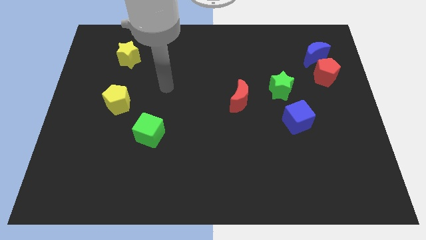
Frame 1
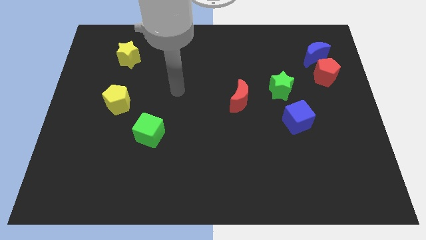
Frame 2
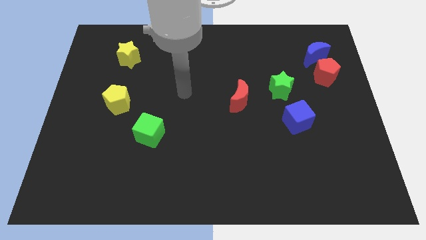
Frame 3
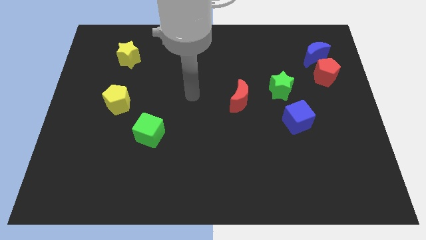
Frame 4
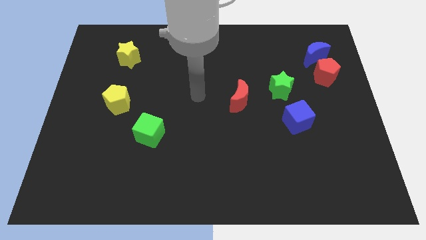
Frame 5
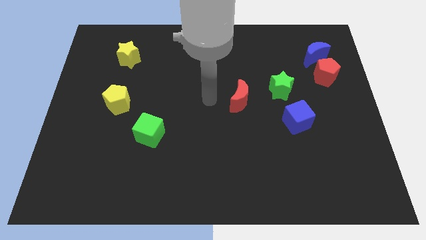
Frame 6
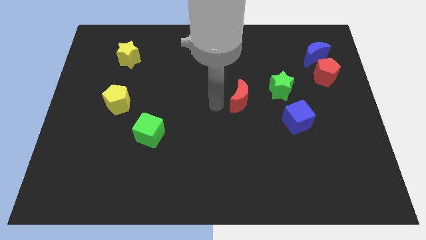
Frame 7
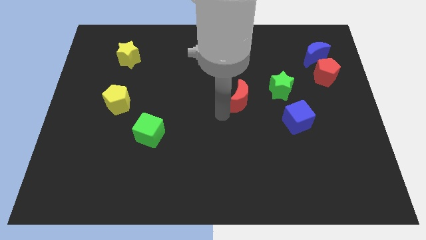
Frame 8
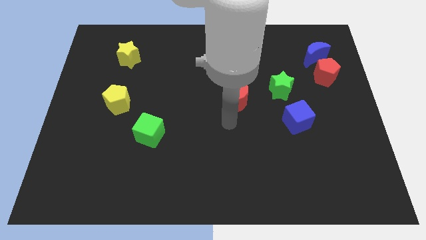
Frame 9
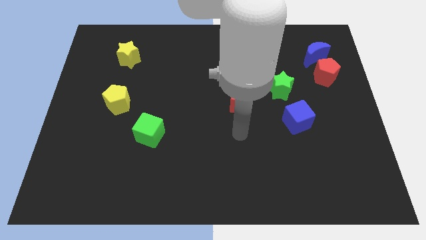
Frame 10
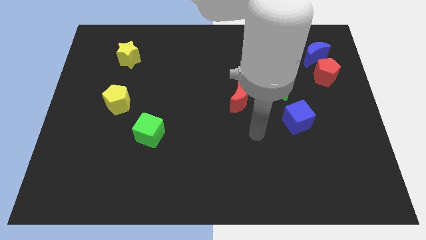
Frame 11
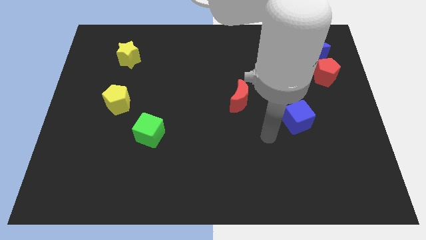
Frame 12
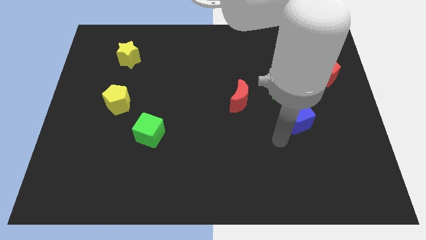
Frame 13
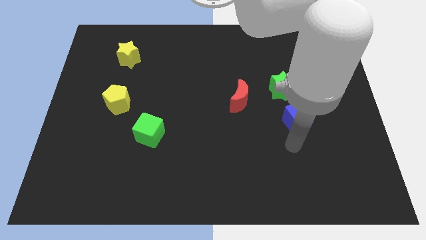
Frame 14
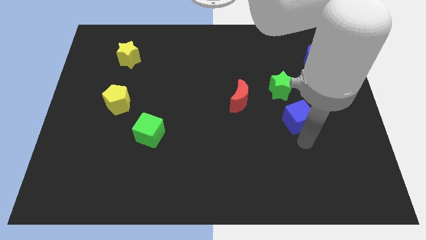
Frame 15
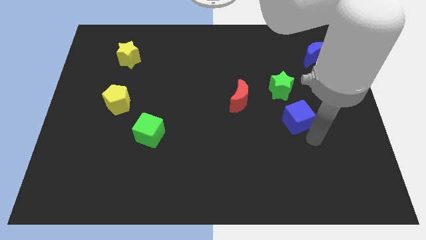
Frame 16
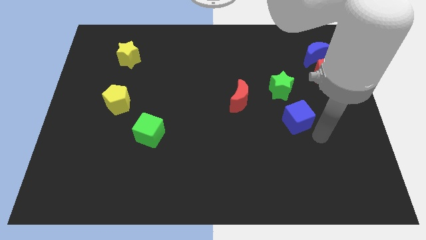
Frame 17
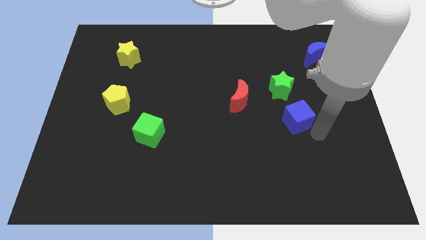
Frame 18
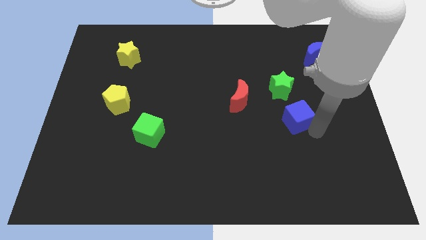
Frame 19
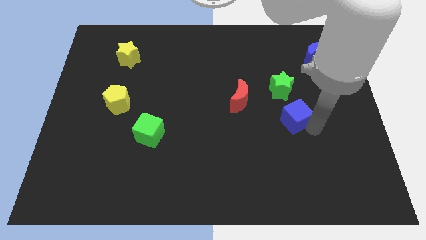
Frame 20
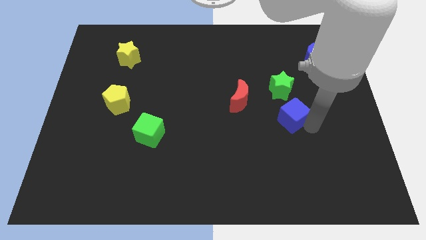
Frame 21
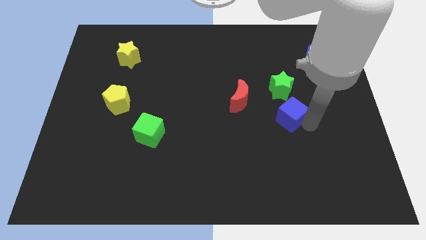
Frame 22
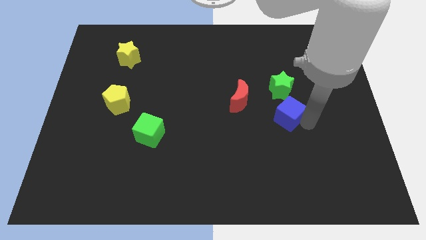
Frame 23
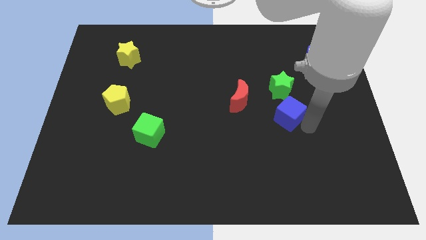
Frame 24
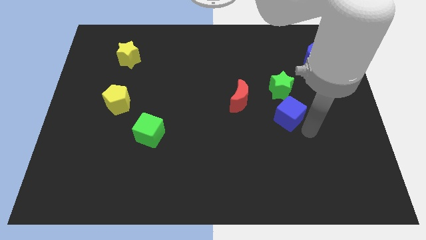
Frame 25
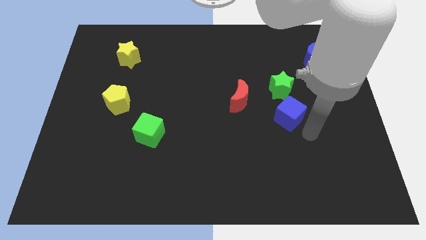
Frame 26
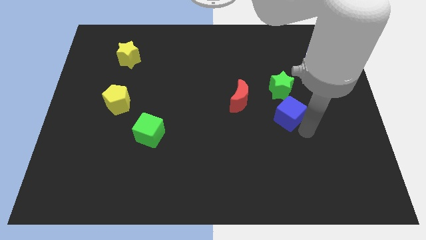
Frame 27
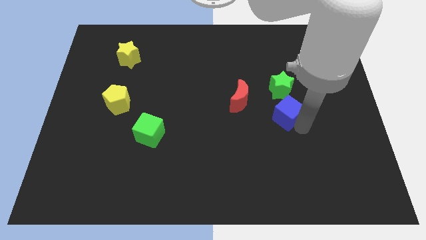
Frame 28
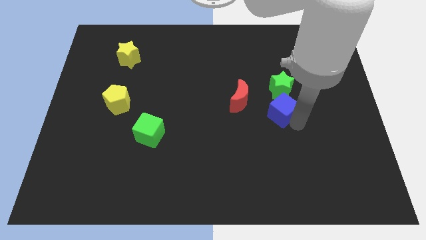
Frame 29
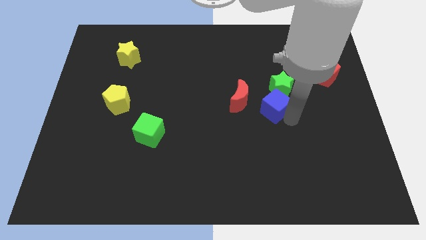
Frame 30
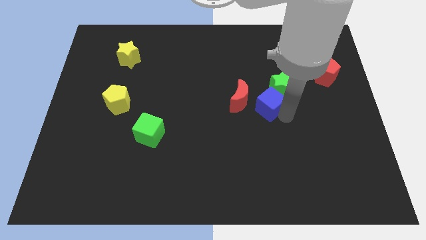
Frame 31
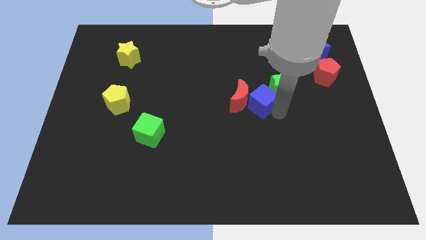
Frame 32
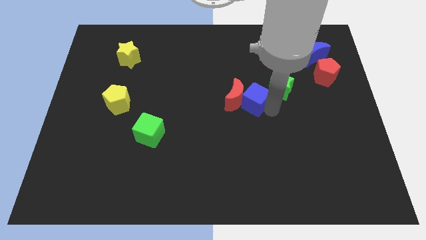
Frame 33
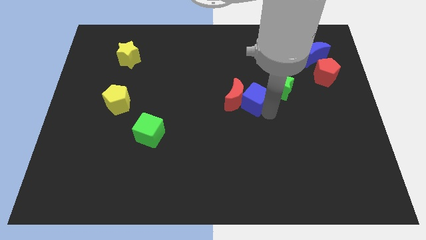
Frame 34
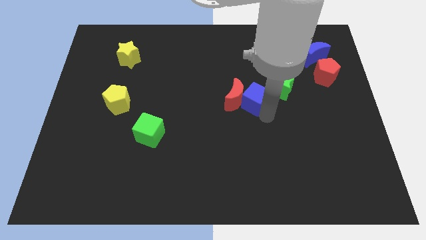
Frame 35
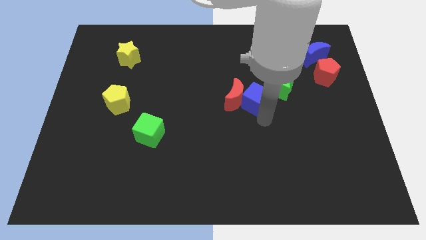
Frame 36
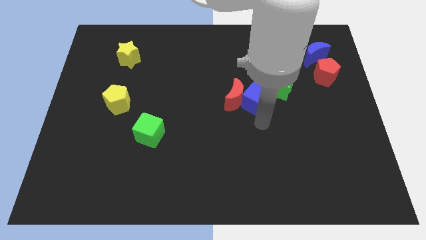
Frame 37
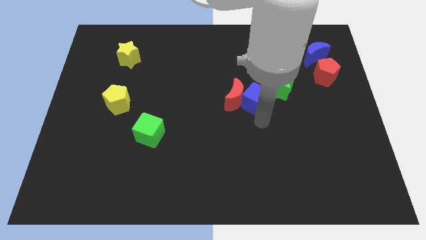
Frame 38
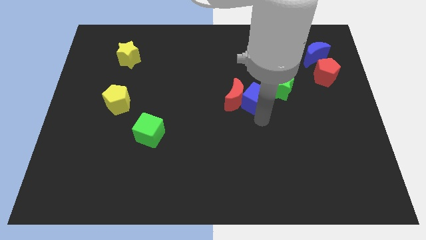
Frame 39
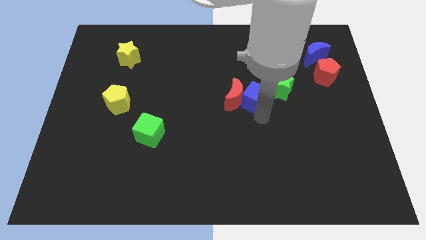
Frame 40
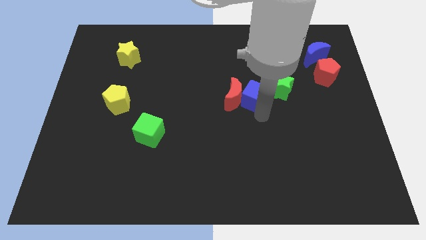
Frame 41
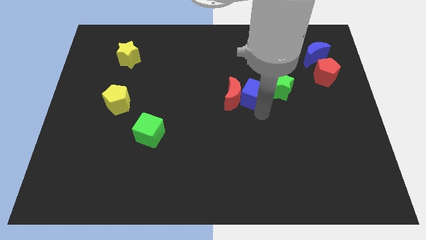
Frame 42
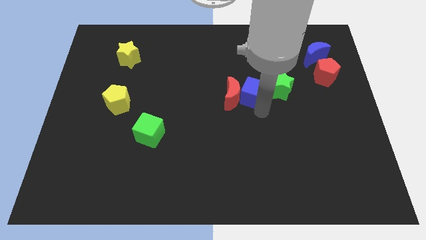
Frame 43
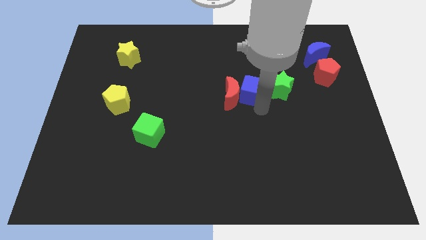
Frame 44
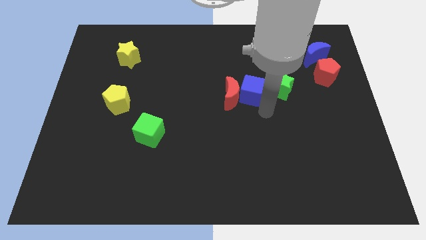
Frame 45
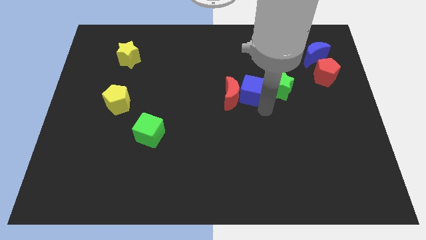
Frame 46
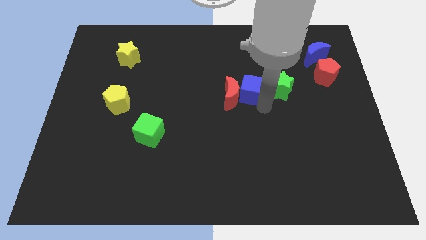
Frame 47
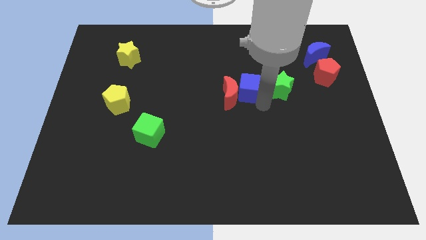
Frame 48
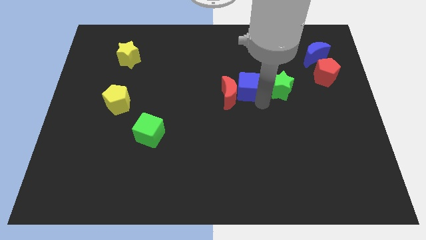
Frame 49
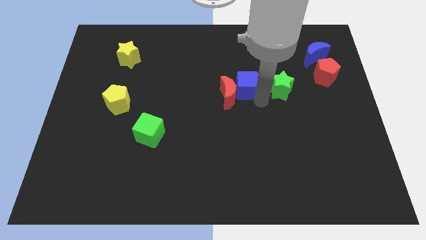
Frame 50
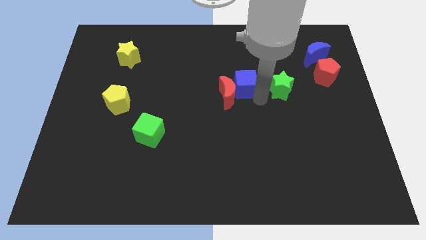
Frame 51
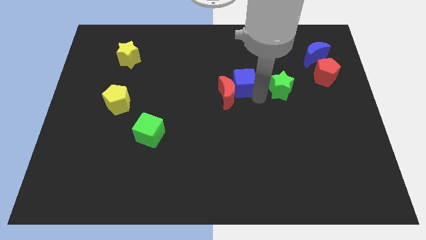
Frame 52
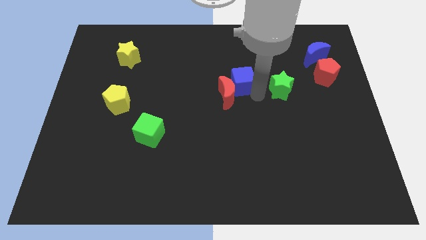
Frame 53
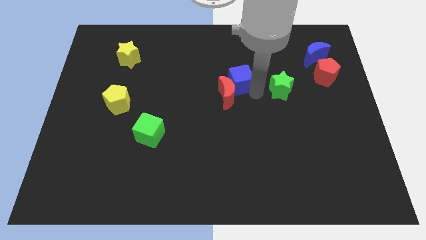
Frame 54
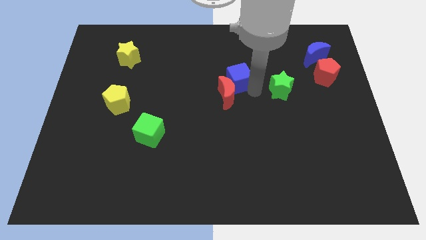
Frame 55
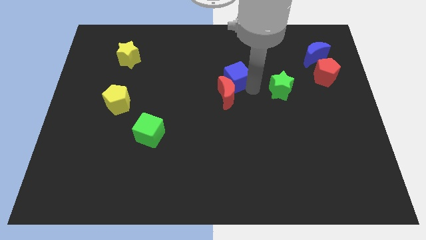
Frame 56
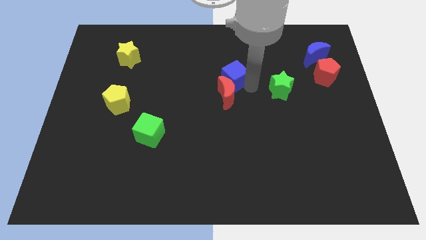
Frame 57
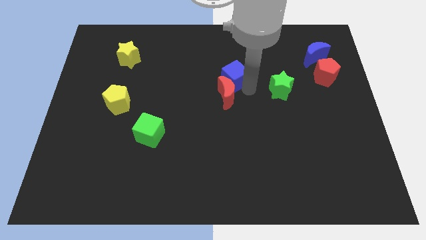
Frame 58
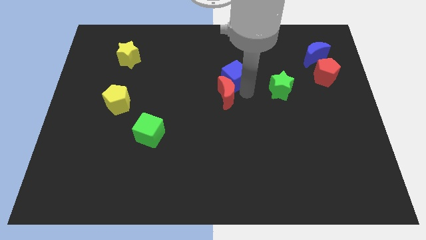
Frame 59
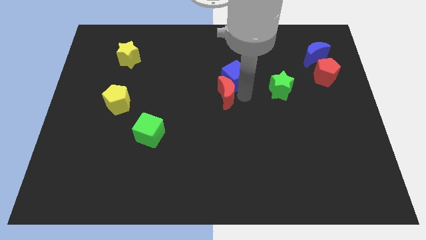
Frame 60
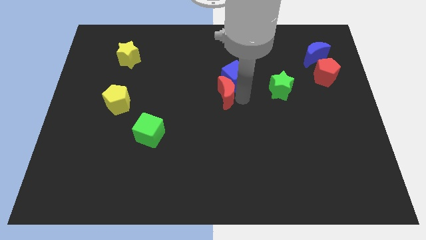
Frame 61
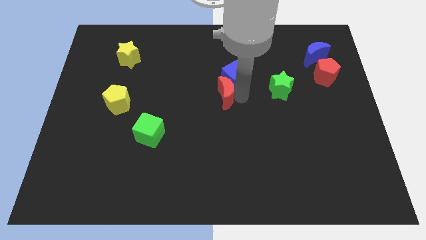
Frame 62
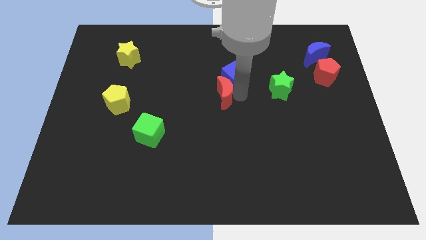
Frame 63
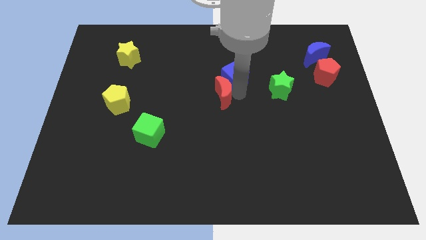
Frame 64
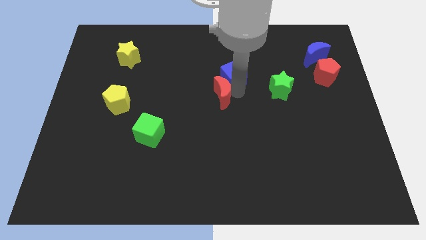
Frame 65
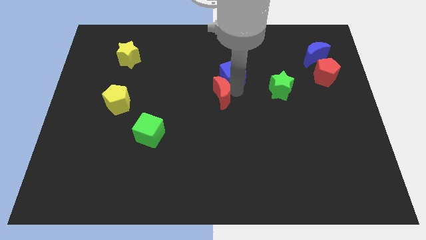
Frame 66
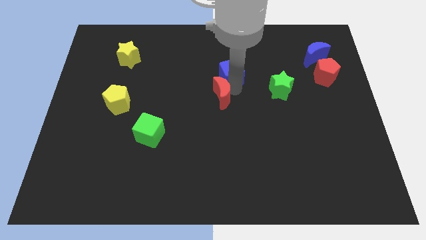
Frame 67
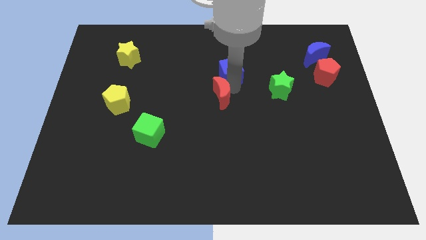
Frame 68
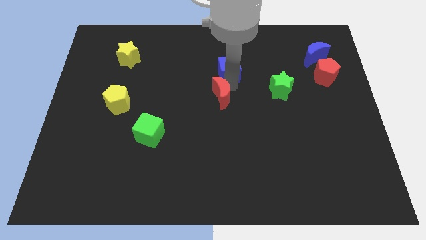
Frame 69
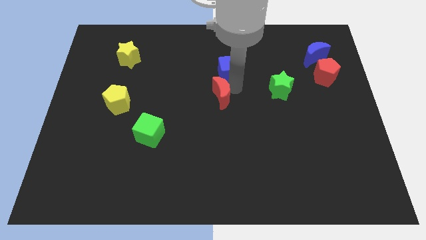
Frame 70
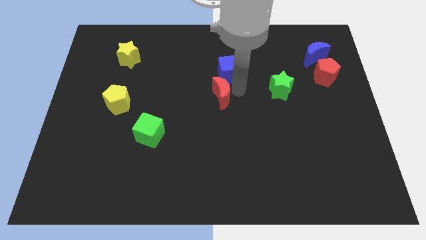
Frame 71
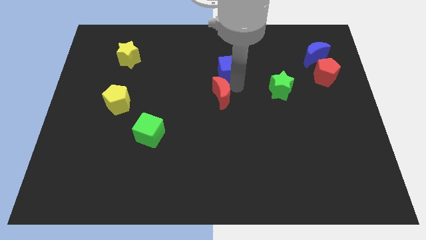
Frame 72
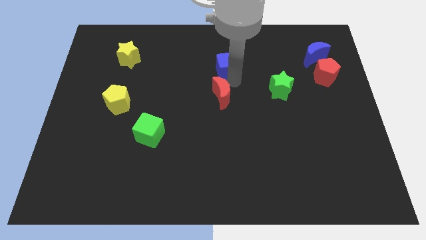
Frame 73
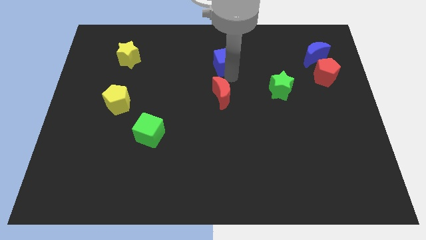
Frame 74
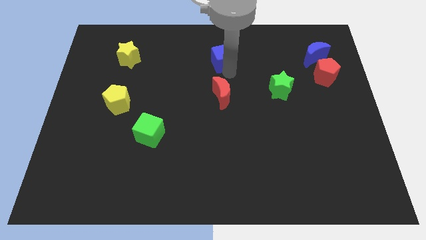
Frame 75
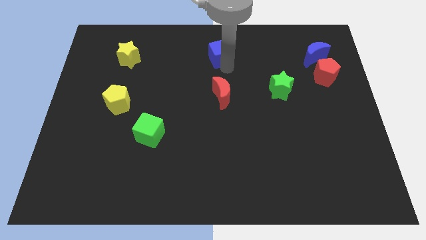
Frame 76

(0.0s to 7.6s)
move the blue cube to the top
